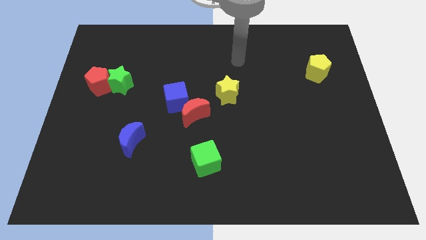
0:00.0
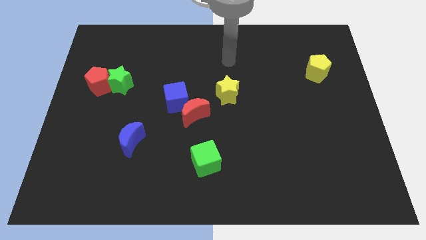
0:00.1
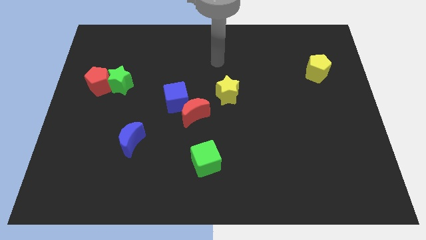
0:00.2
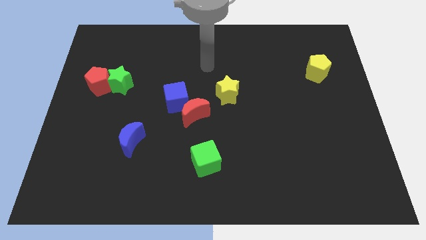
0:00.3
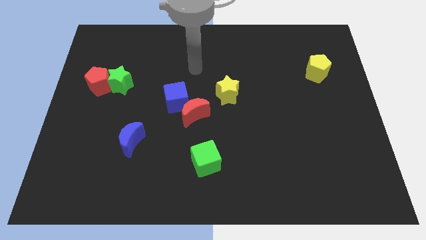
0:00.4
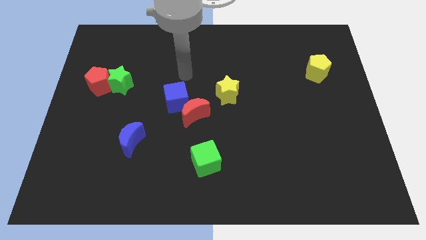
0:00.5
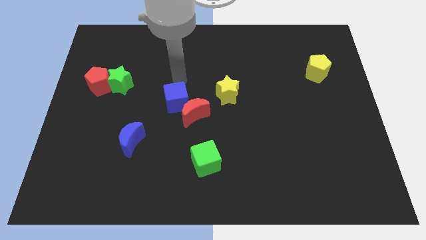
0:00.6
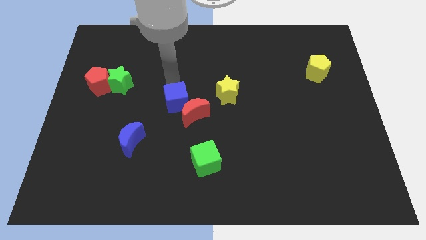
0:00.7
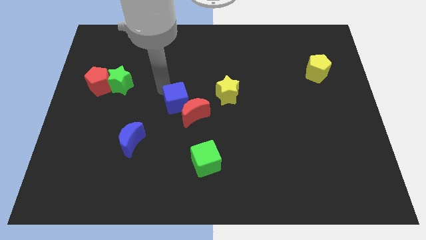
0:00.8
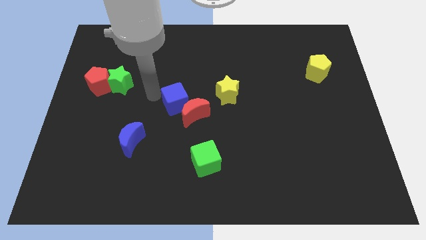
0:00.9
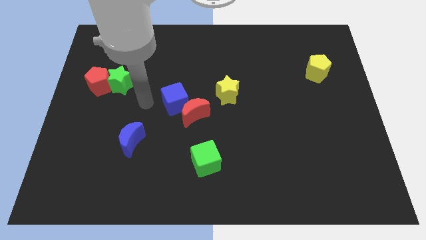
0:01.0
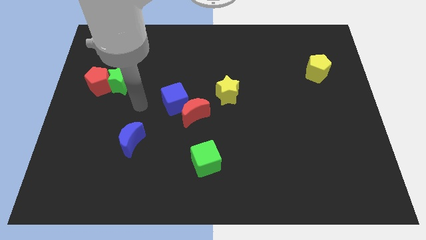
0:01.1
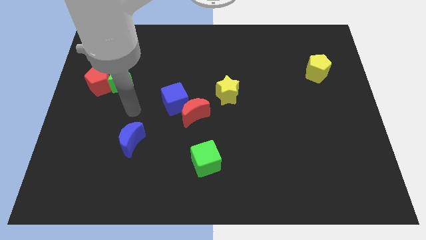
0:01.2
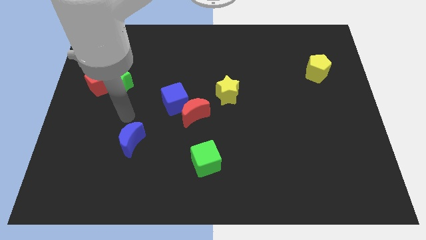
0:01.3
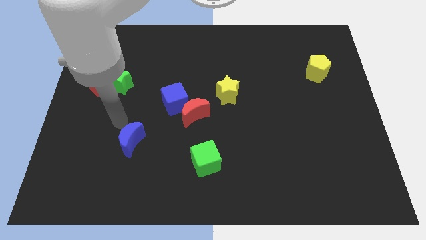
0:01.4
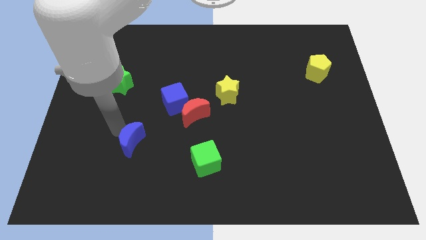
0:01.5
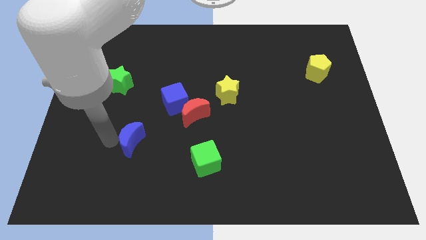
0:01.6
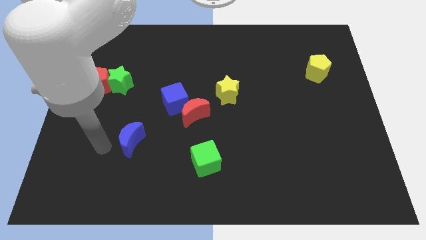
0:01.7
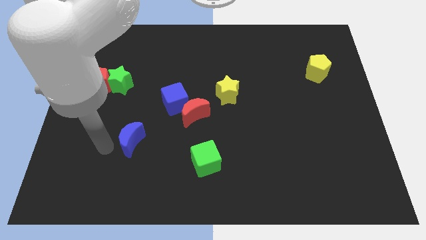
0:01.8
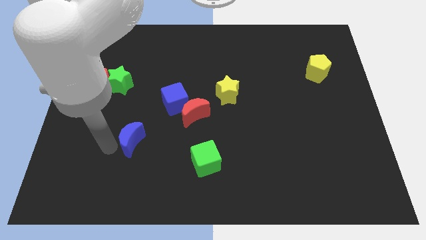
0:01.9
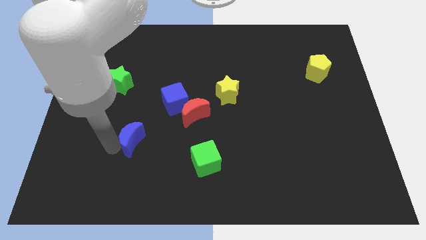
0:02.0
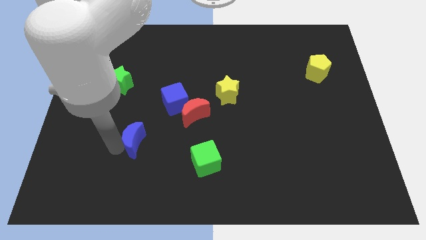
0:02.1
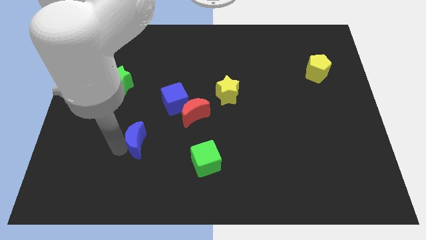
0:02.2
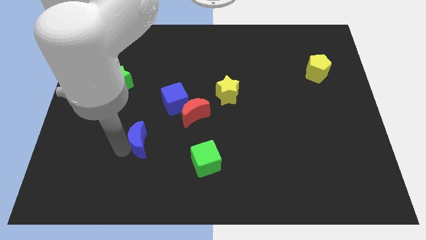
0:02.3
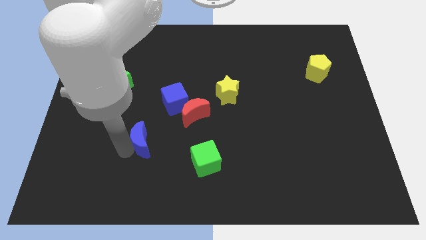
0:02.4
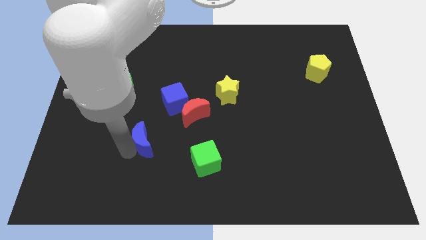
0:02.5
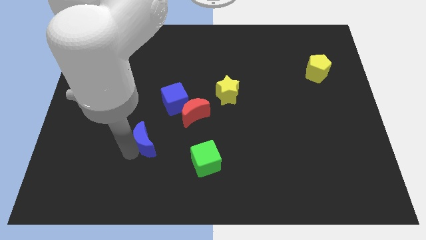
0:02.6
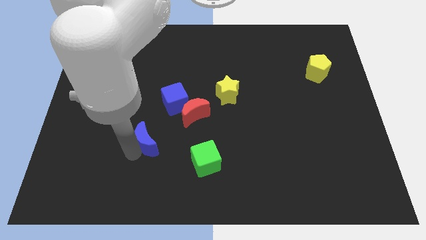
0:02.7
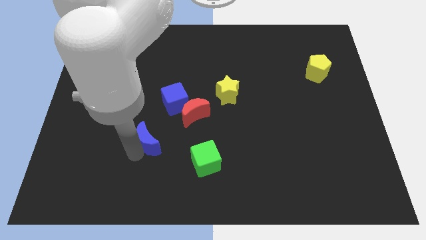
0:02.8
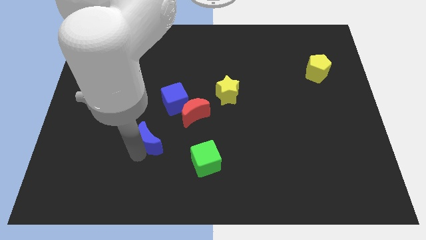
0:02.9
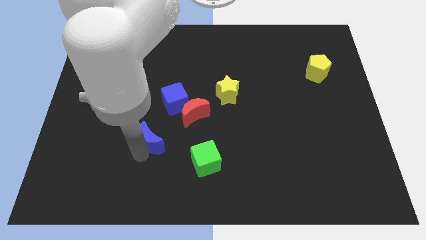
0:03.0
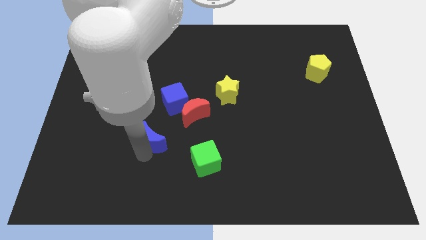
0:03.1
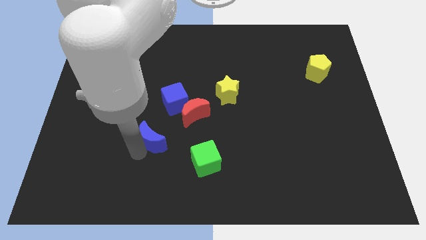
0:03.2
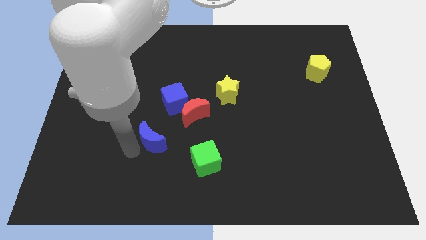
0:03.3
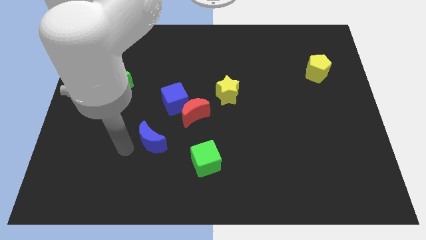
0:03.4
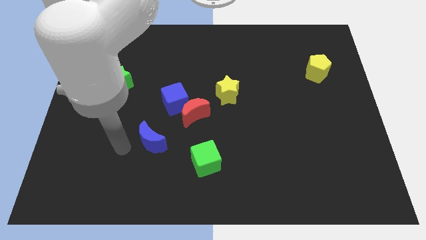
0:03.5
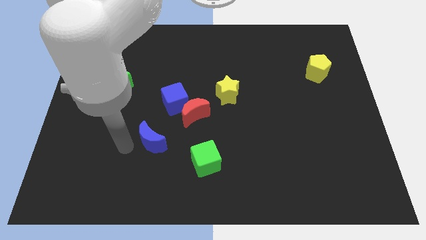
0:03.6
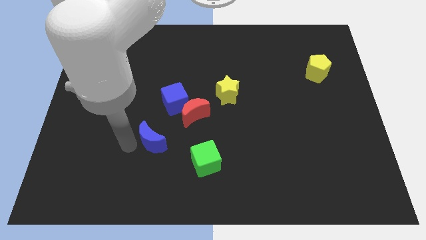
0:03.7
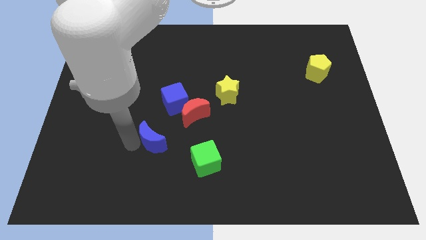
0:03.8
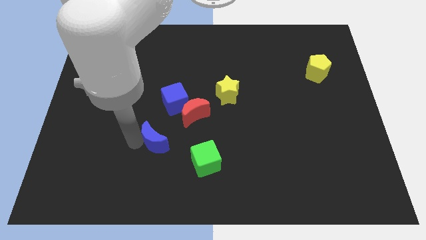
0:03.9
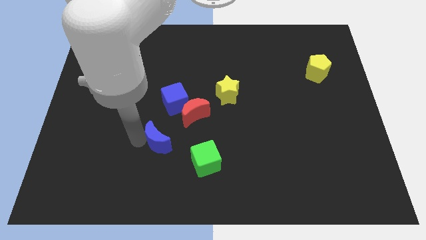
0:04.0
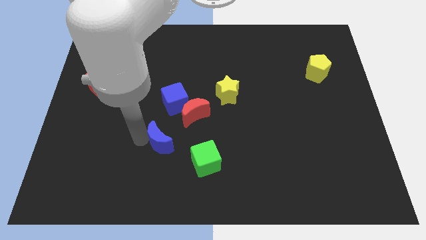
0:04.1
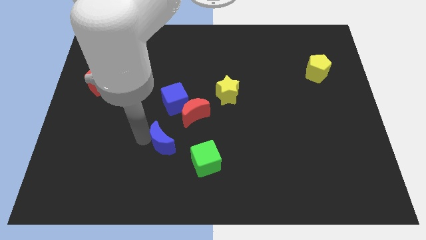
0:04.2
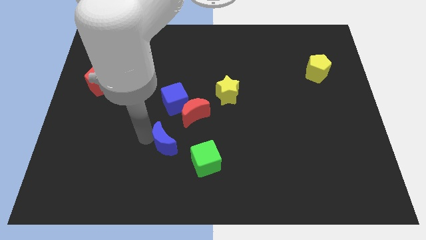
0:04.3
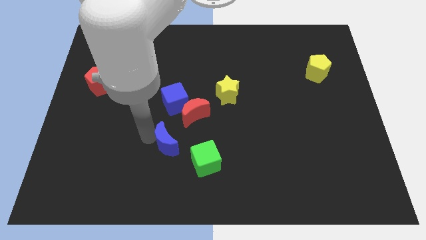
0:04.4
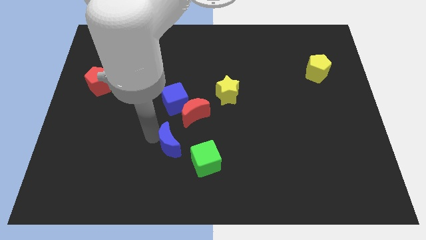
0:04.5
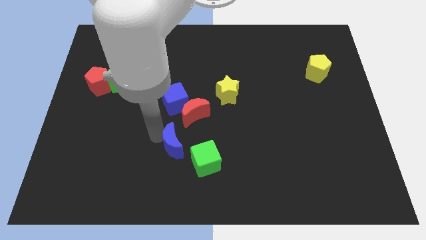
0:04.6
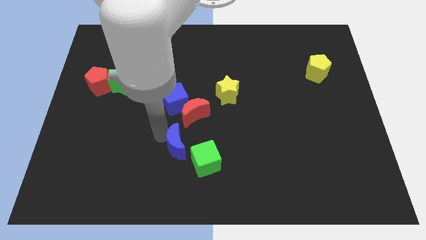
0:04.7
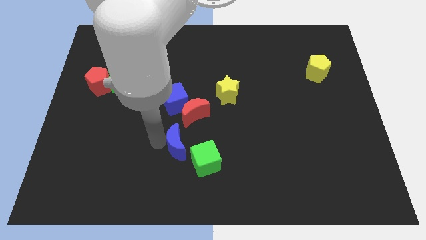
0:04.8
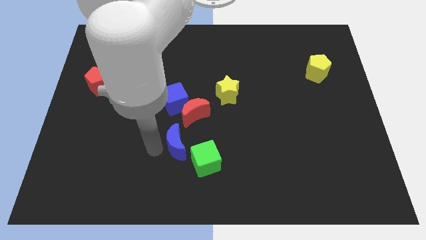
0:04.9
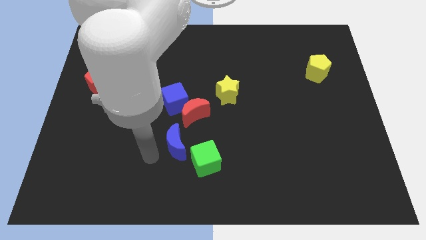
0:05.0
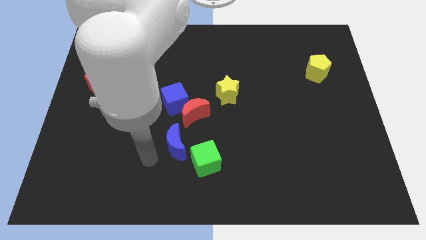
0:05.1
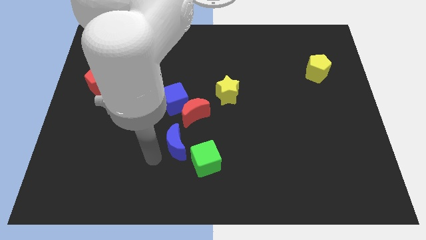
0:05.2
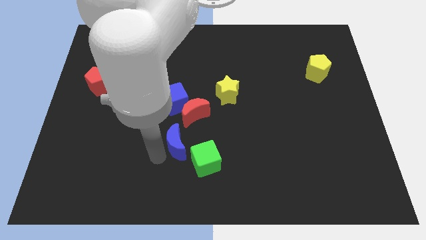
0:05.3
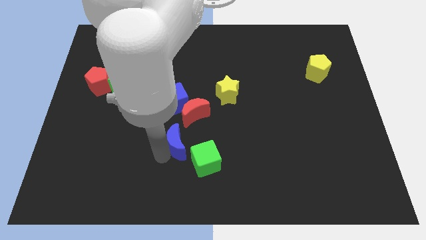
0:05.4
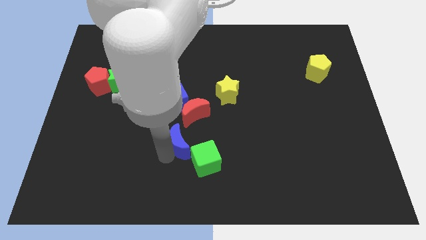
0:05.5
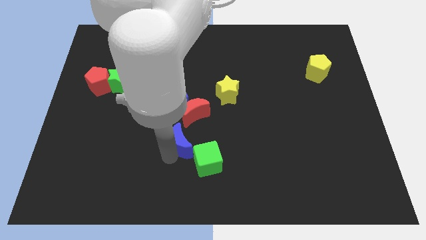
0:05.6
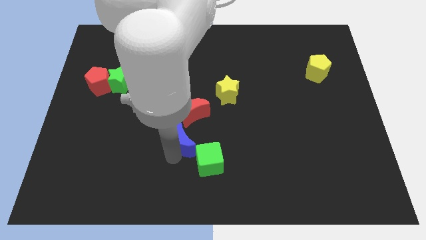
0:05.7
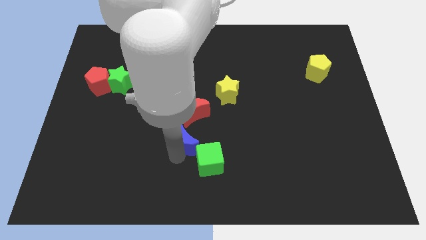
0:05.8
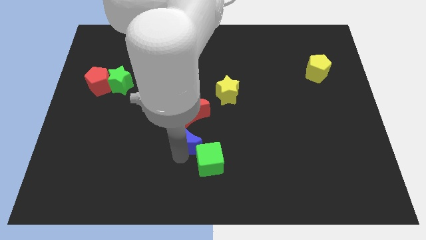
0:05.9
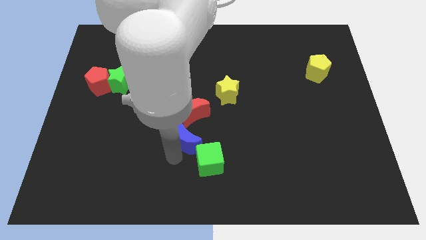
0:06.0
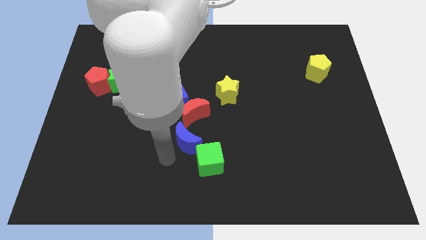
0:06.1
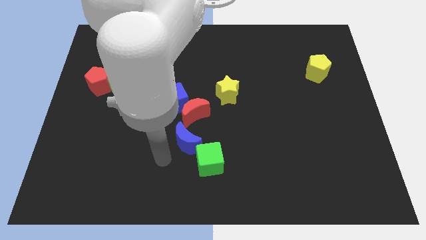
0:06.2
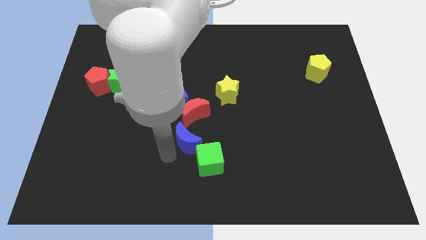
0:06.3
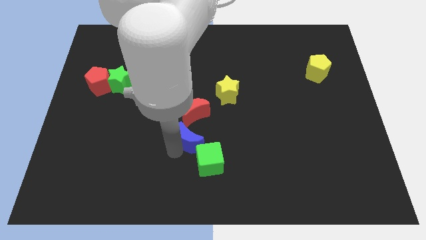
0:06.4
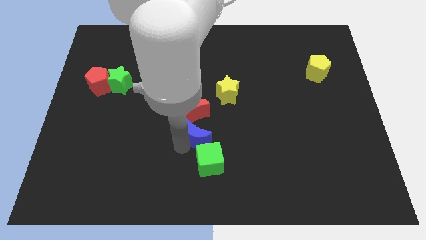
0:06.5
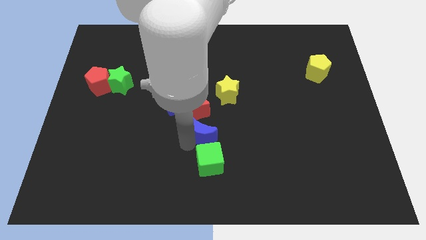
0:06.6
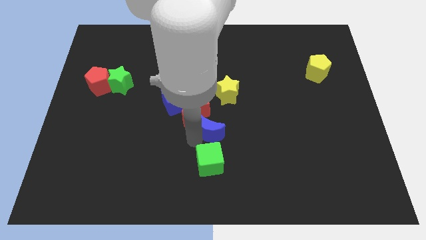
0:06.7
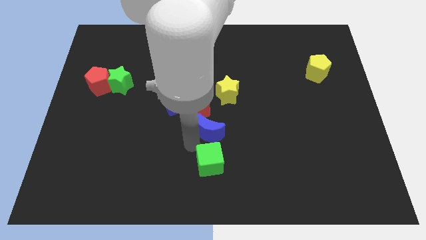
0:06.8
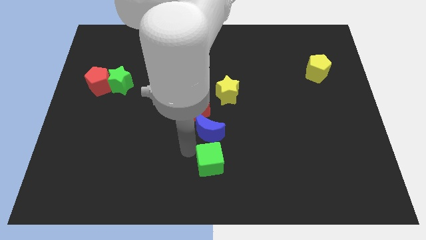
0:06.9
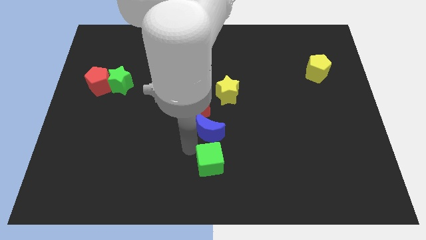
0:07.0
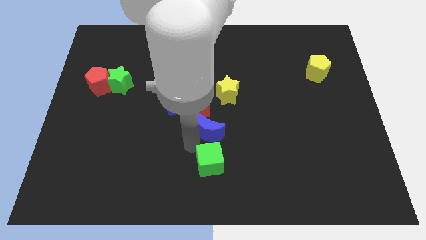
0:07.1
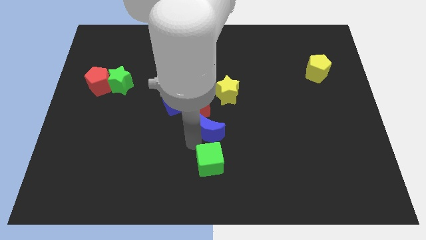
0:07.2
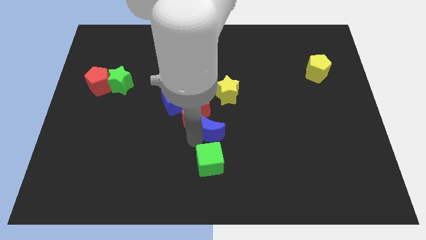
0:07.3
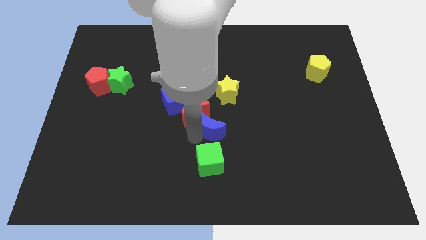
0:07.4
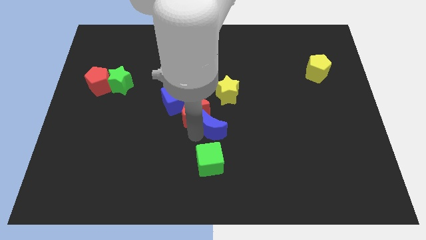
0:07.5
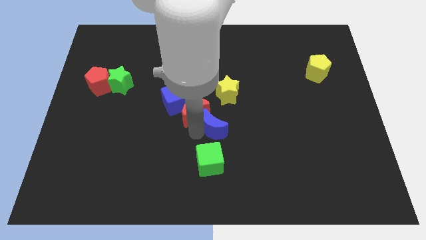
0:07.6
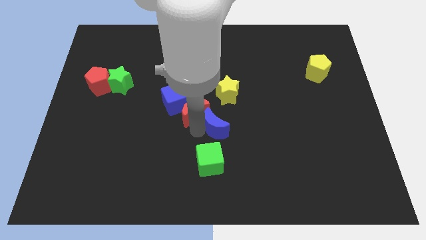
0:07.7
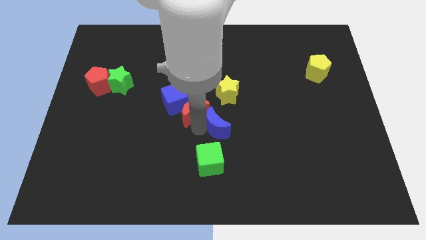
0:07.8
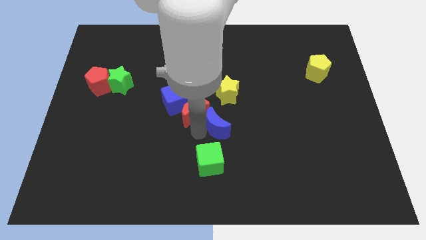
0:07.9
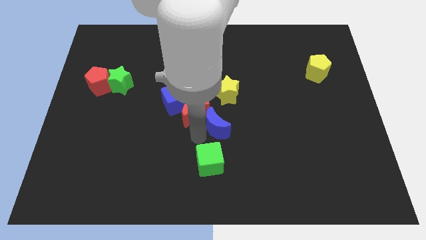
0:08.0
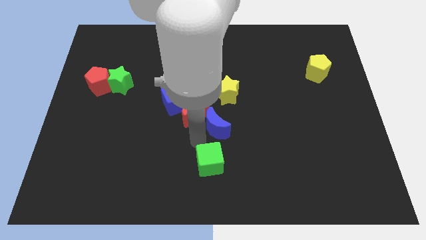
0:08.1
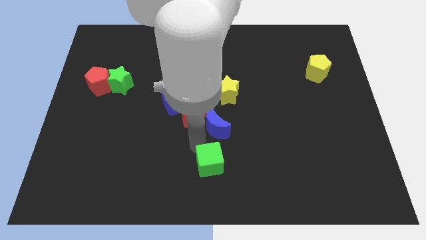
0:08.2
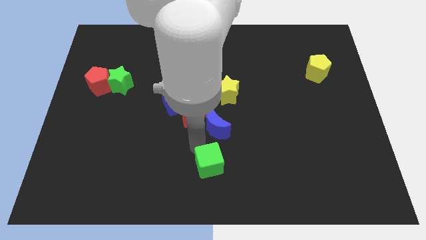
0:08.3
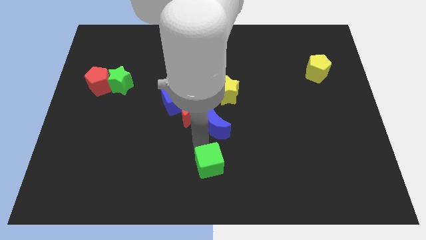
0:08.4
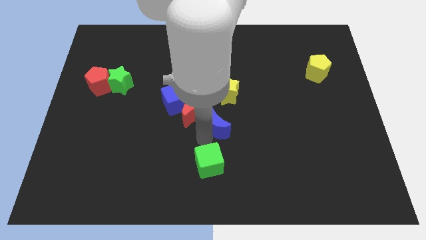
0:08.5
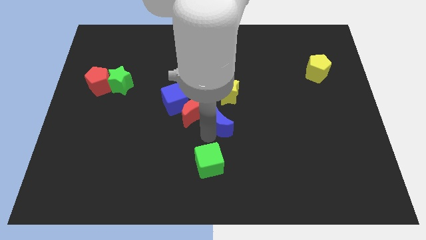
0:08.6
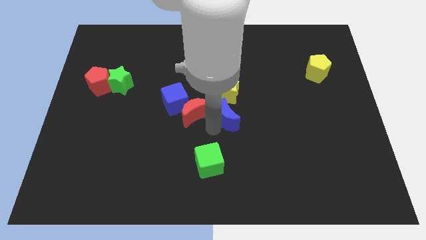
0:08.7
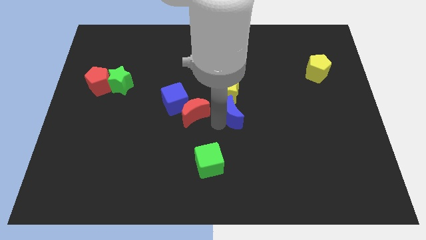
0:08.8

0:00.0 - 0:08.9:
slide the blue moon diagonally down and to the right of the yellow star
